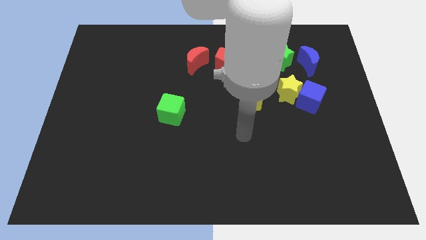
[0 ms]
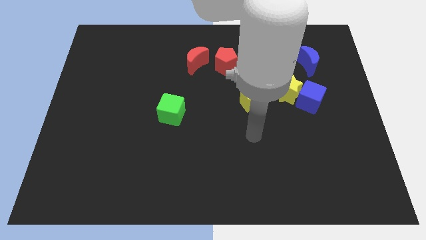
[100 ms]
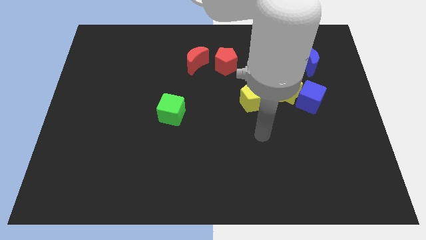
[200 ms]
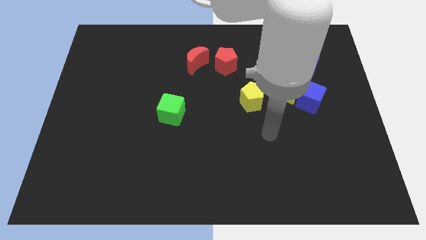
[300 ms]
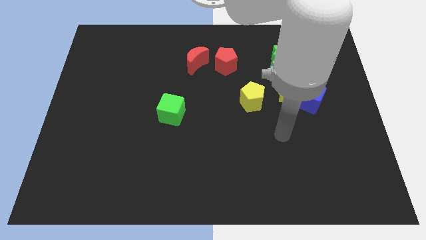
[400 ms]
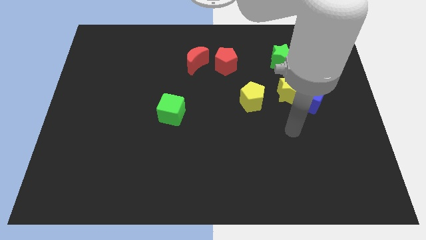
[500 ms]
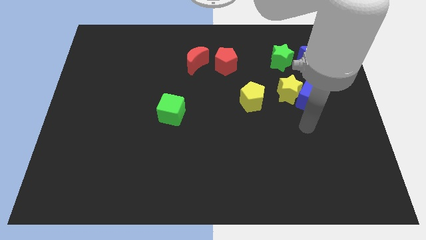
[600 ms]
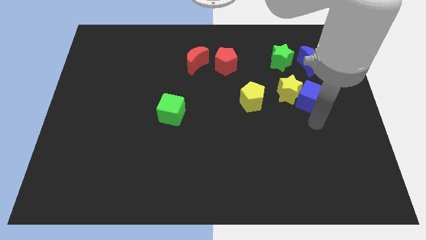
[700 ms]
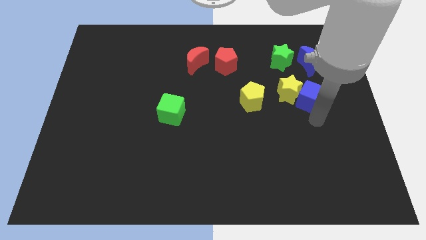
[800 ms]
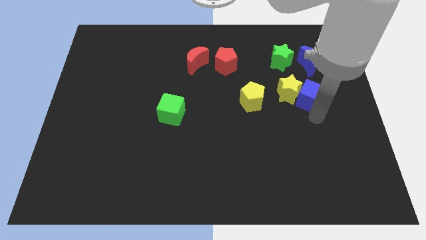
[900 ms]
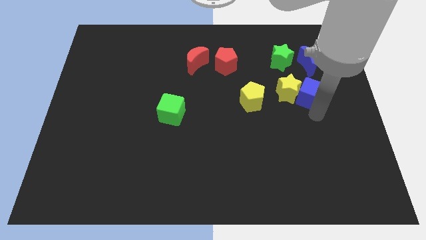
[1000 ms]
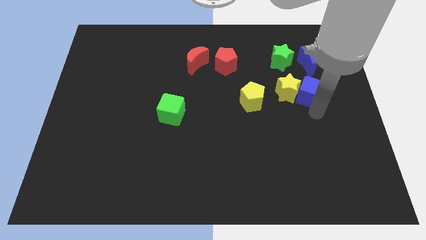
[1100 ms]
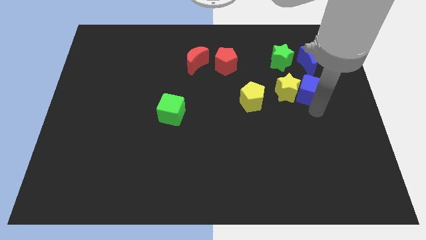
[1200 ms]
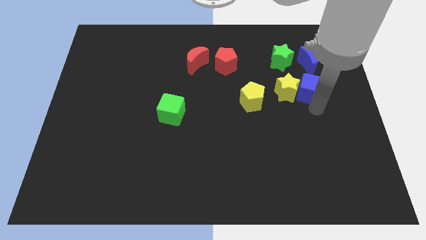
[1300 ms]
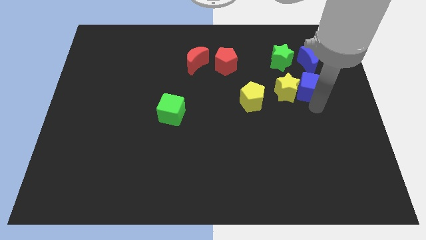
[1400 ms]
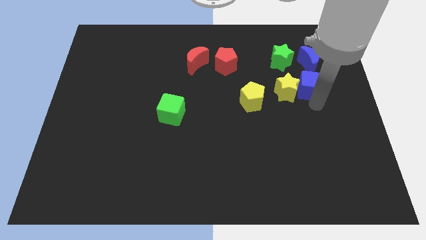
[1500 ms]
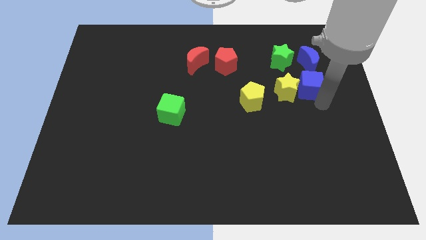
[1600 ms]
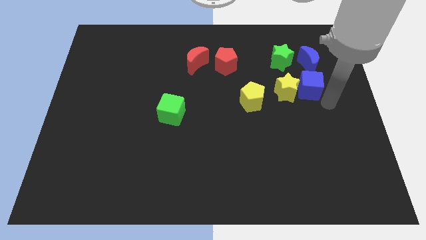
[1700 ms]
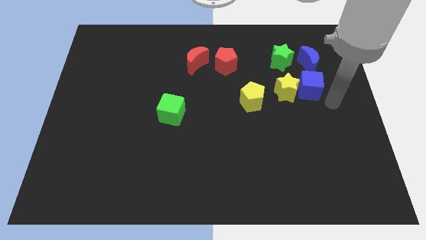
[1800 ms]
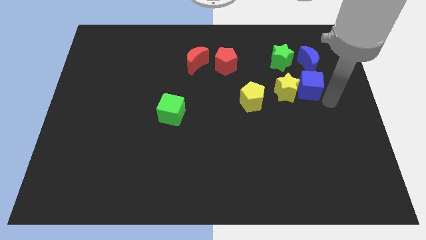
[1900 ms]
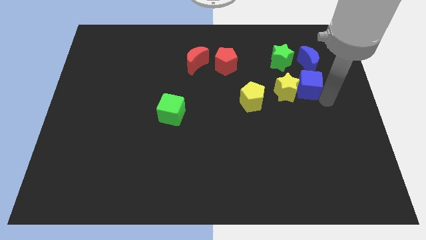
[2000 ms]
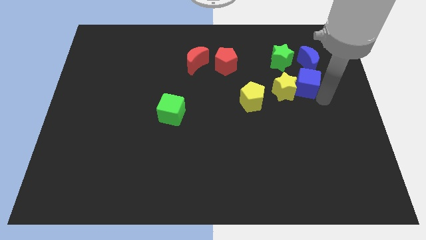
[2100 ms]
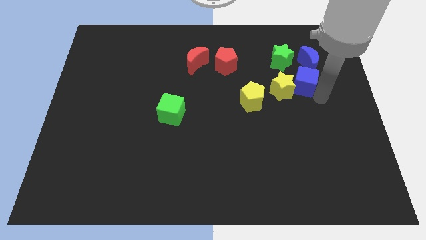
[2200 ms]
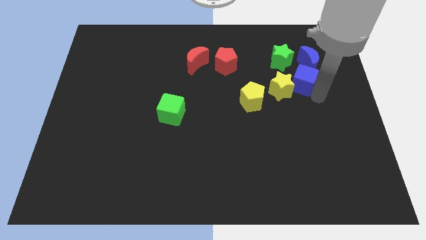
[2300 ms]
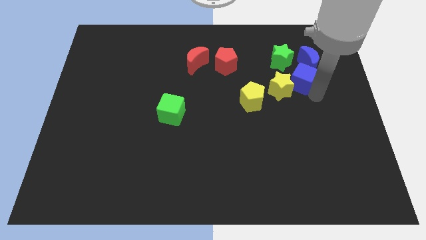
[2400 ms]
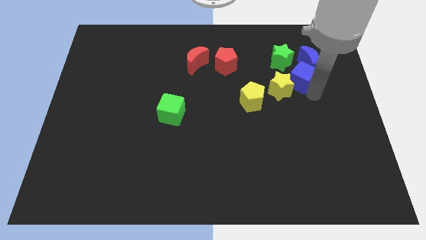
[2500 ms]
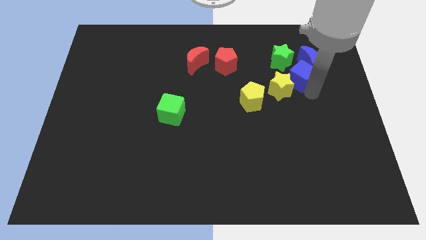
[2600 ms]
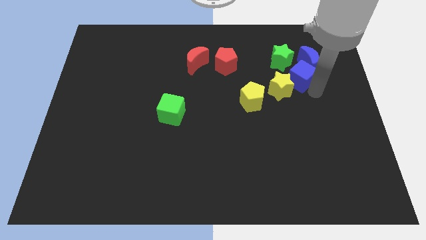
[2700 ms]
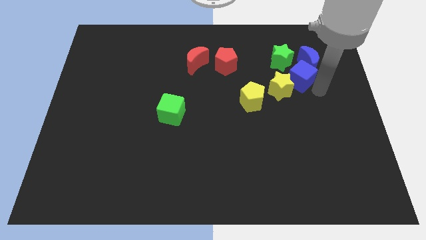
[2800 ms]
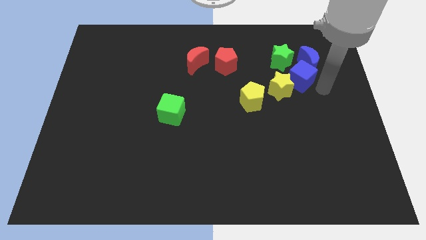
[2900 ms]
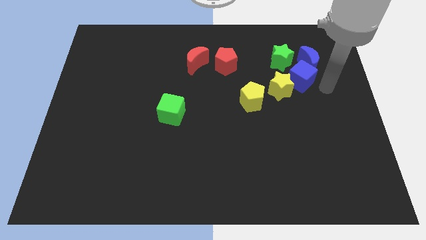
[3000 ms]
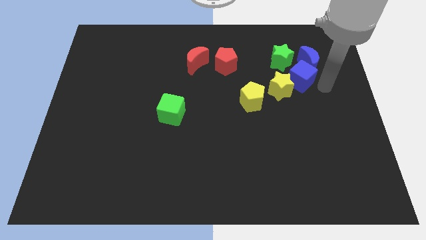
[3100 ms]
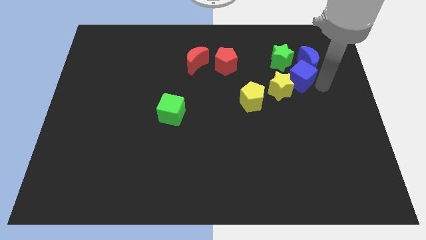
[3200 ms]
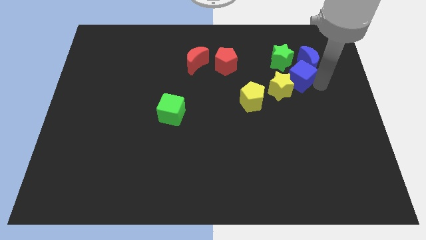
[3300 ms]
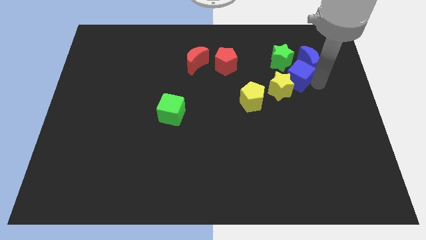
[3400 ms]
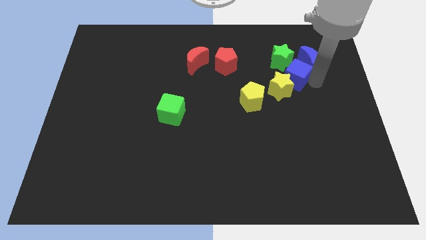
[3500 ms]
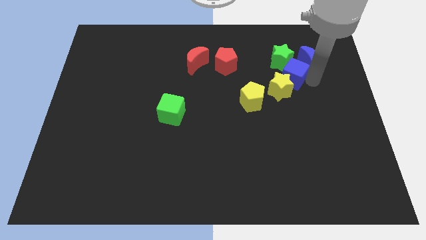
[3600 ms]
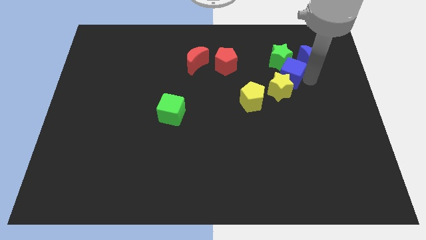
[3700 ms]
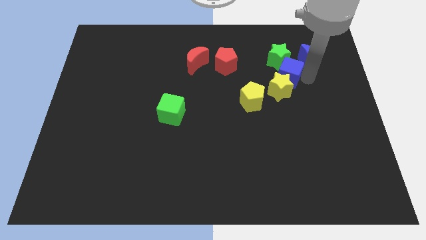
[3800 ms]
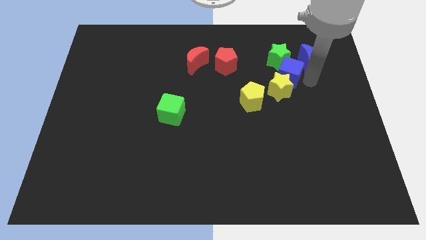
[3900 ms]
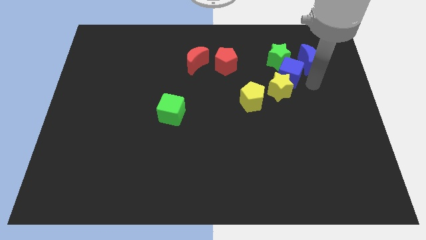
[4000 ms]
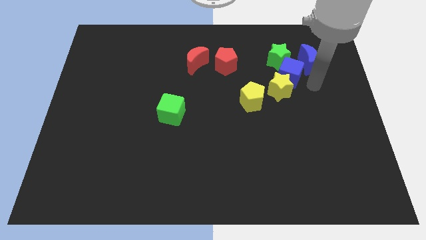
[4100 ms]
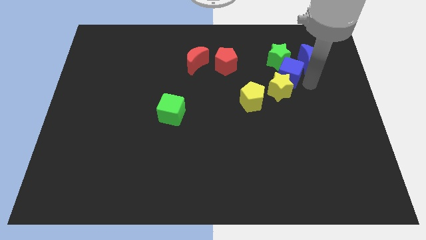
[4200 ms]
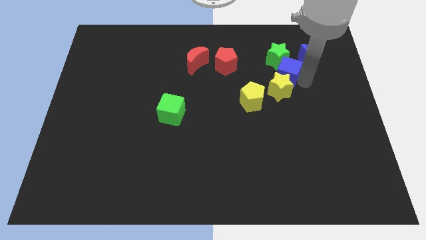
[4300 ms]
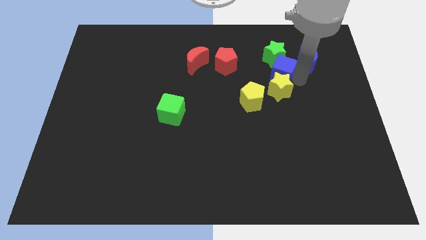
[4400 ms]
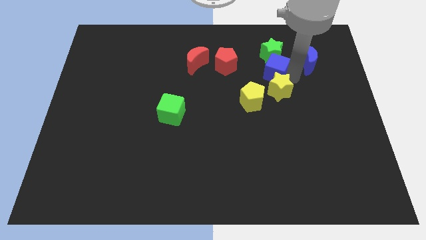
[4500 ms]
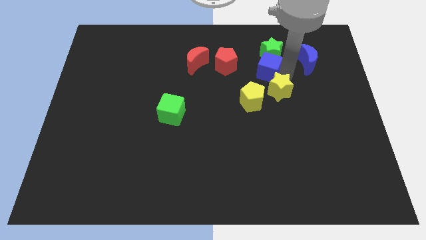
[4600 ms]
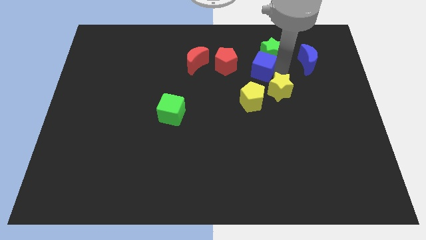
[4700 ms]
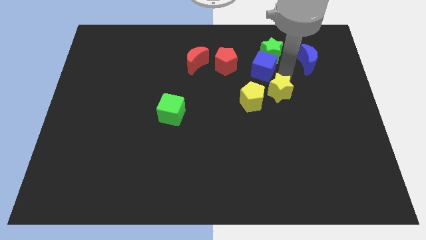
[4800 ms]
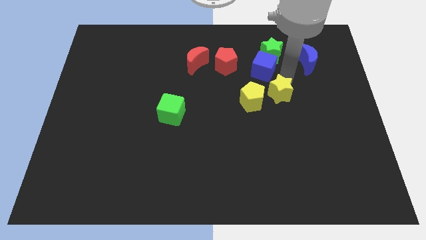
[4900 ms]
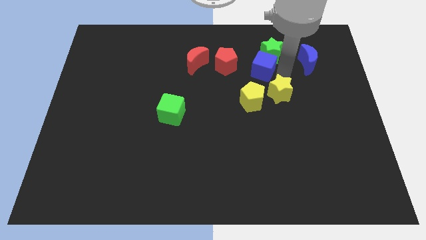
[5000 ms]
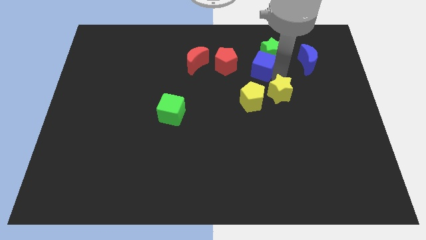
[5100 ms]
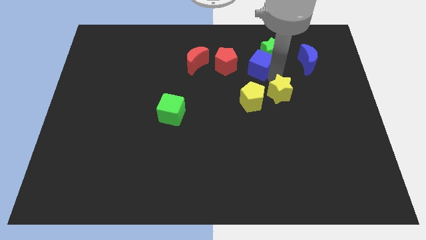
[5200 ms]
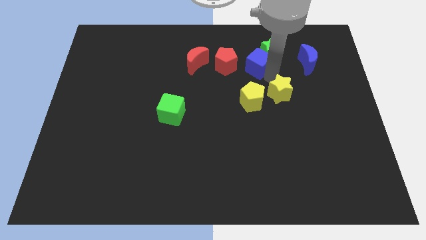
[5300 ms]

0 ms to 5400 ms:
move the blue cube to the left of the green star

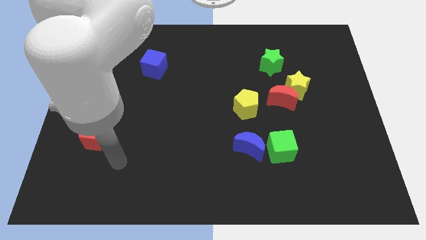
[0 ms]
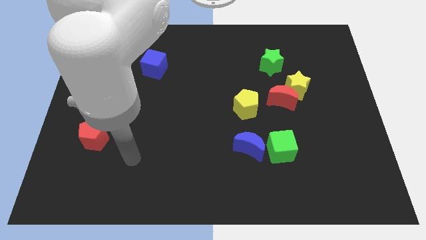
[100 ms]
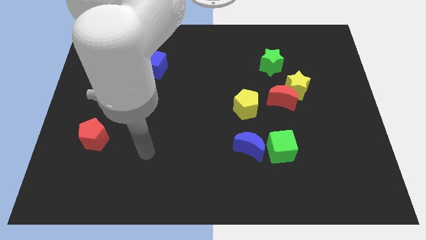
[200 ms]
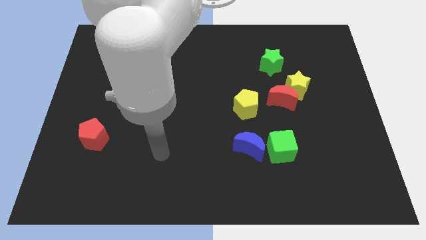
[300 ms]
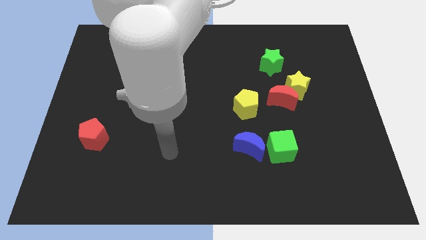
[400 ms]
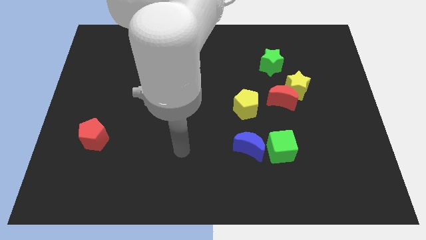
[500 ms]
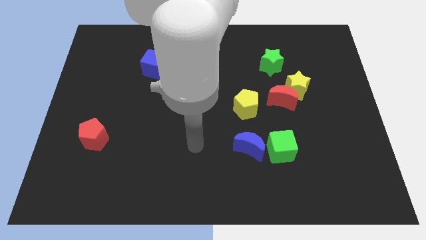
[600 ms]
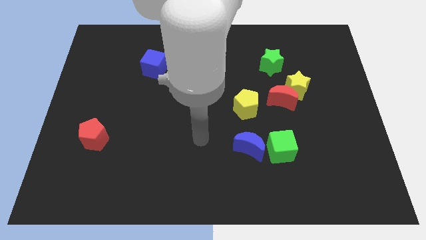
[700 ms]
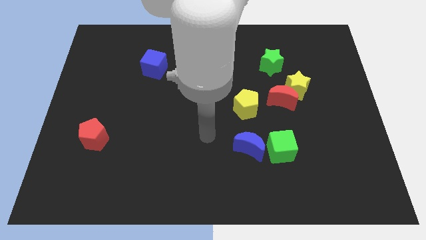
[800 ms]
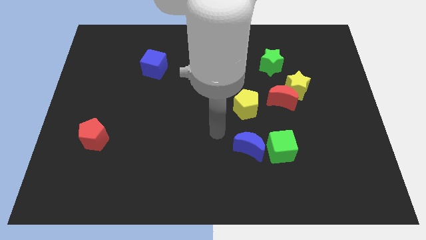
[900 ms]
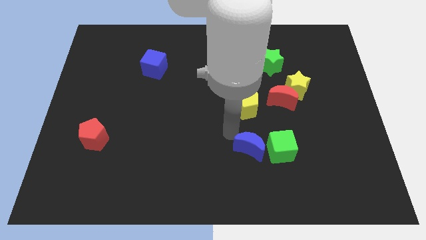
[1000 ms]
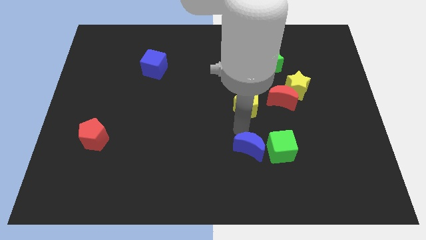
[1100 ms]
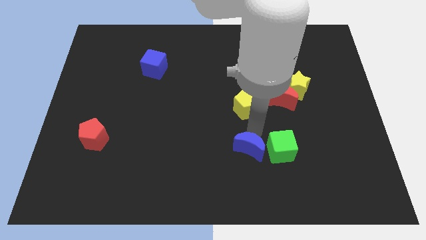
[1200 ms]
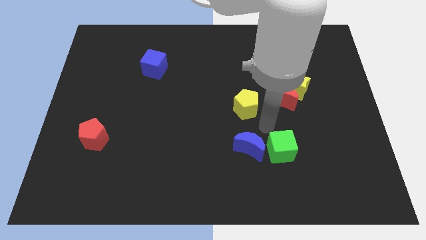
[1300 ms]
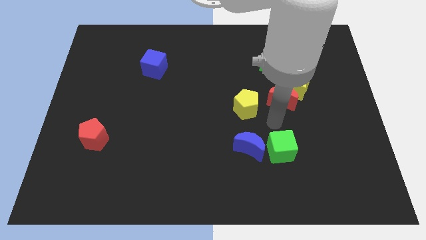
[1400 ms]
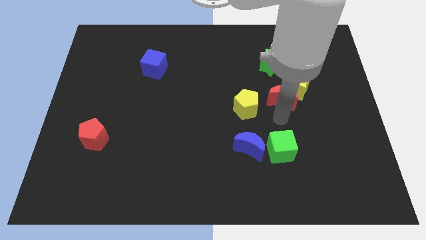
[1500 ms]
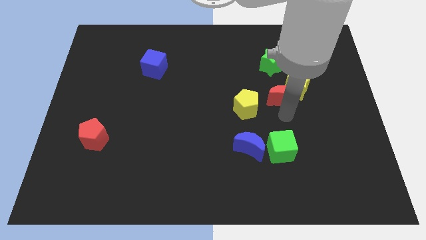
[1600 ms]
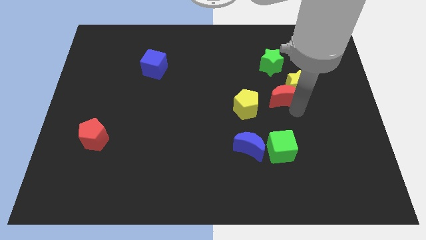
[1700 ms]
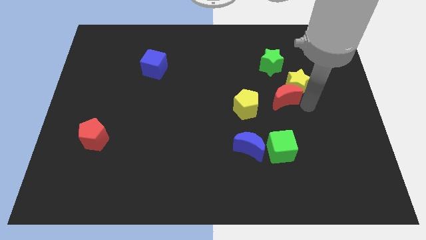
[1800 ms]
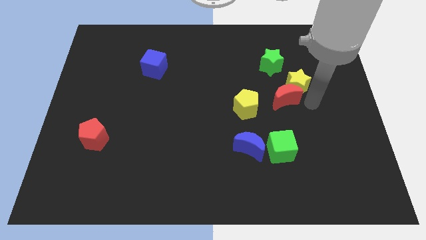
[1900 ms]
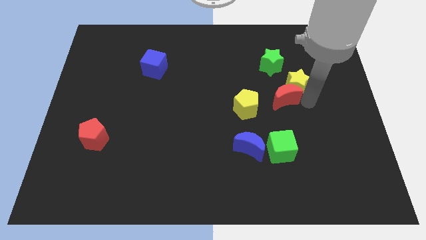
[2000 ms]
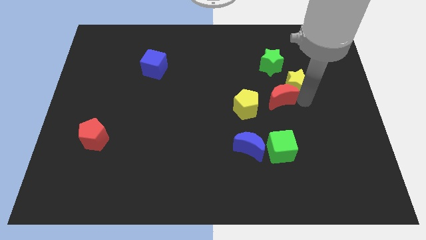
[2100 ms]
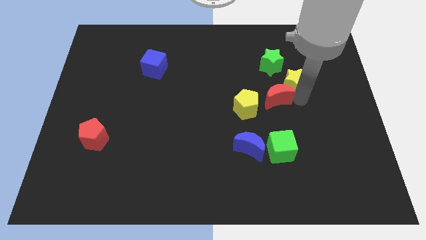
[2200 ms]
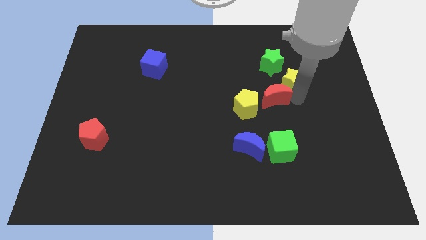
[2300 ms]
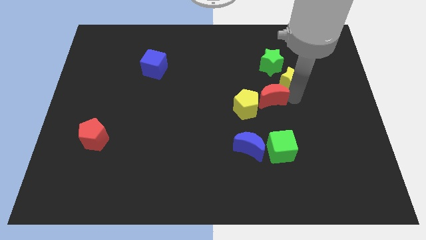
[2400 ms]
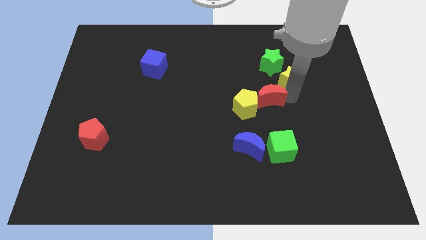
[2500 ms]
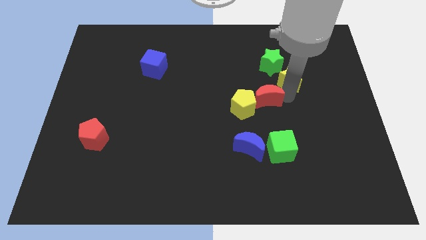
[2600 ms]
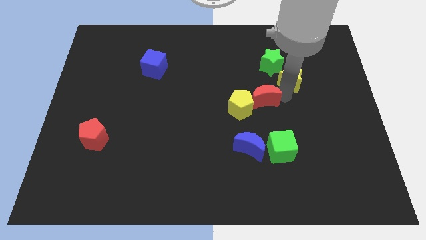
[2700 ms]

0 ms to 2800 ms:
push the red moon to the top of the blue moon
